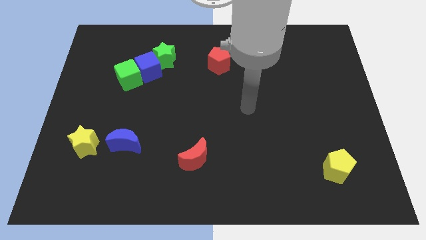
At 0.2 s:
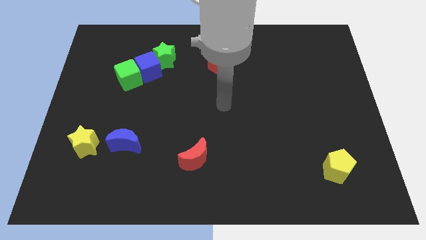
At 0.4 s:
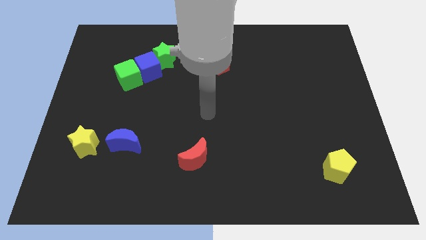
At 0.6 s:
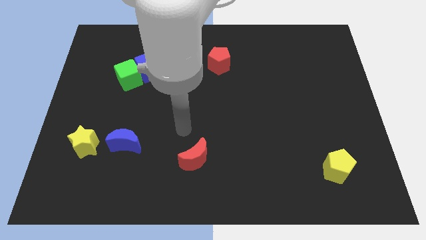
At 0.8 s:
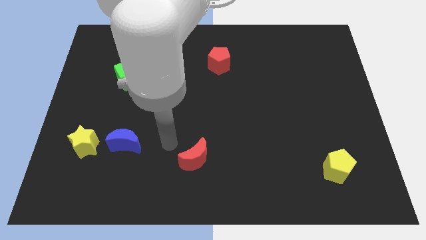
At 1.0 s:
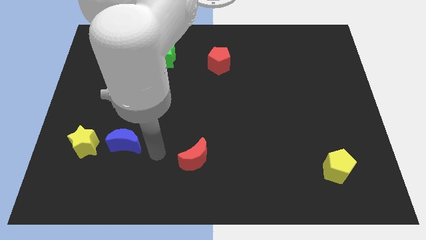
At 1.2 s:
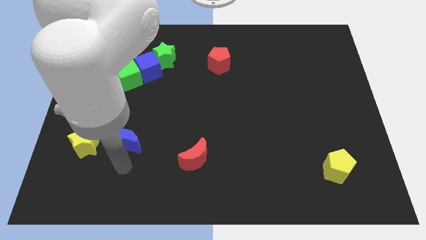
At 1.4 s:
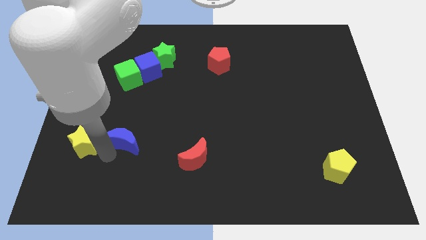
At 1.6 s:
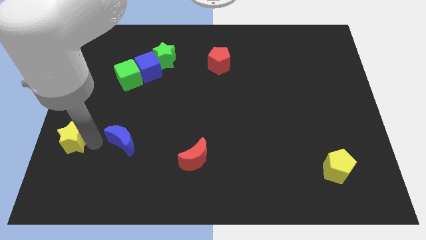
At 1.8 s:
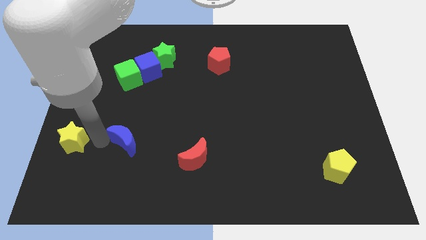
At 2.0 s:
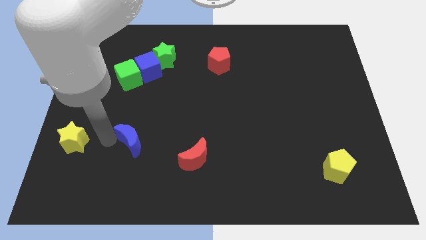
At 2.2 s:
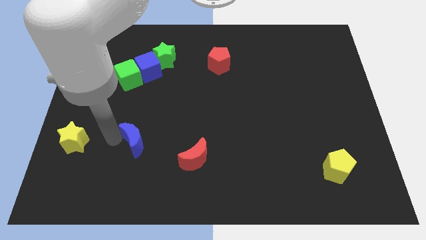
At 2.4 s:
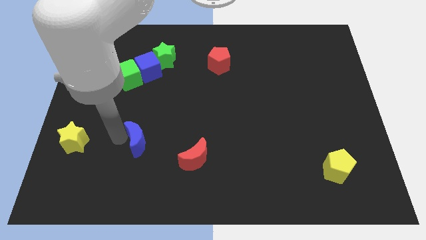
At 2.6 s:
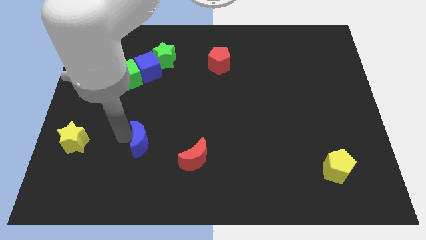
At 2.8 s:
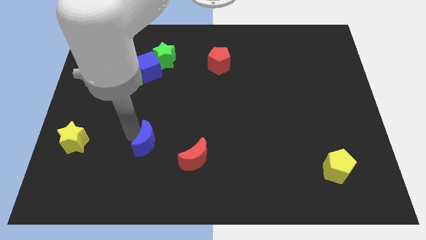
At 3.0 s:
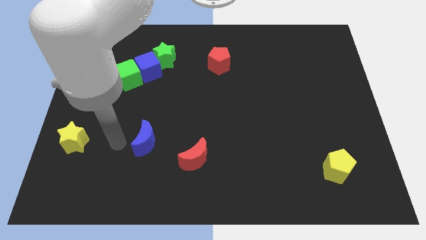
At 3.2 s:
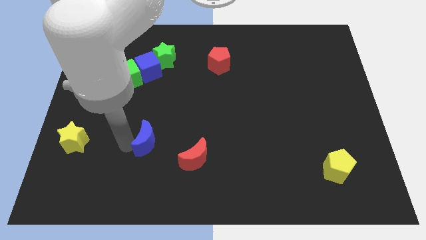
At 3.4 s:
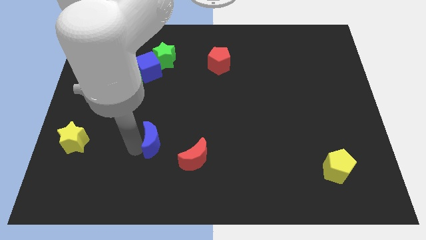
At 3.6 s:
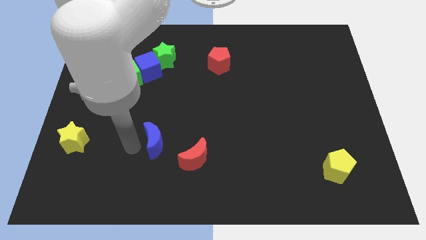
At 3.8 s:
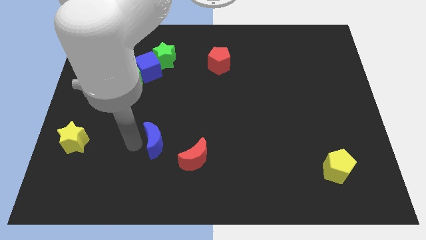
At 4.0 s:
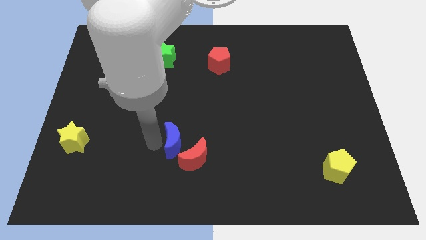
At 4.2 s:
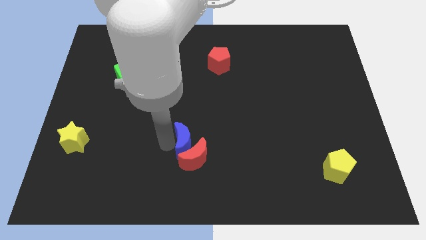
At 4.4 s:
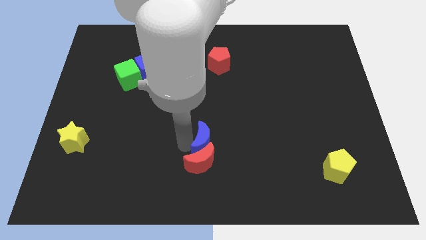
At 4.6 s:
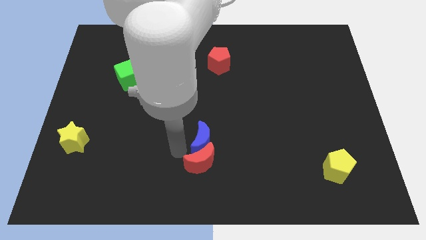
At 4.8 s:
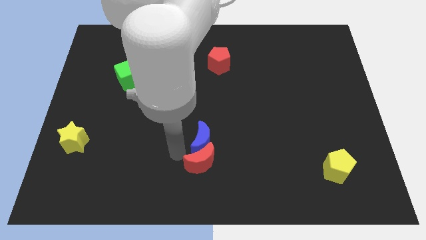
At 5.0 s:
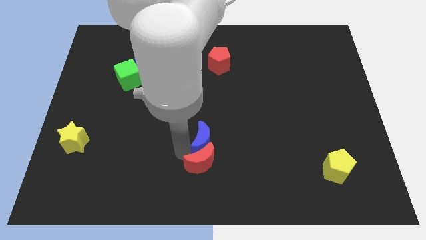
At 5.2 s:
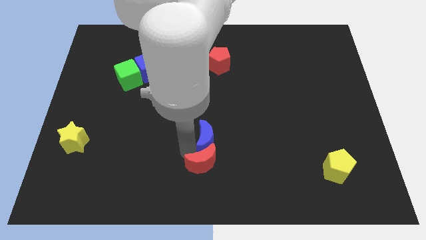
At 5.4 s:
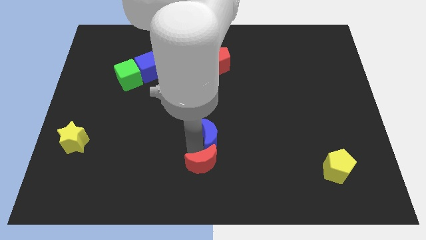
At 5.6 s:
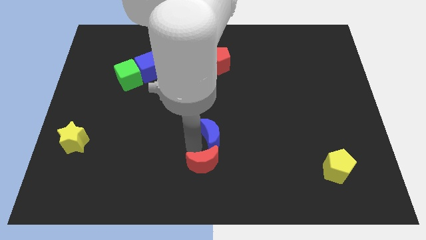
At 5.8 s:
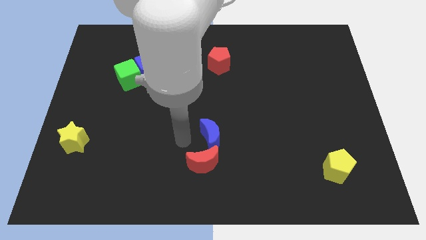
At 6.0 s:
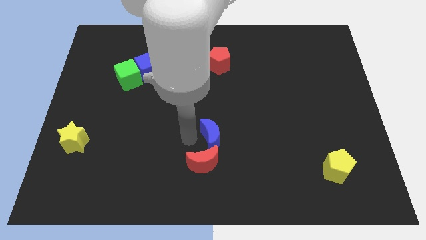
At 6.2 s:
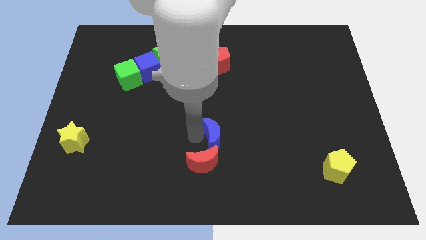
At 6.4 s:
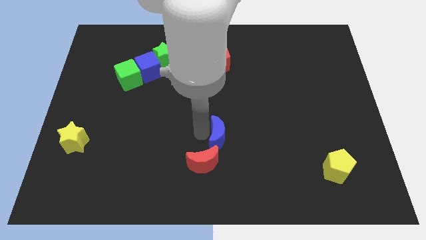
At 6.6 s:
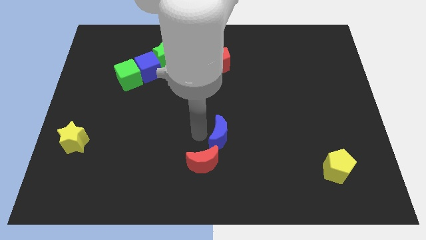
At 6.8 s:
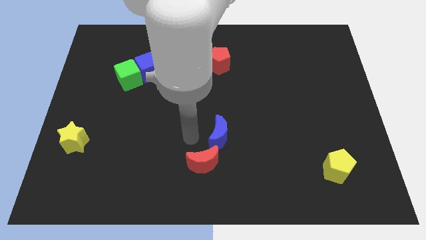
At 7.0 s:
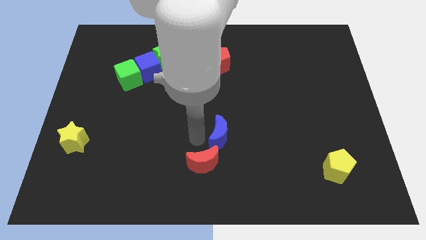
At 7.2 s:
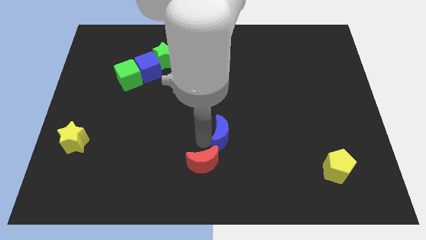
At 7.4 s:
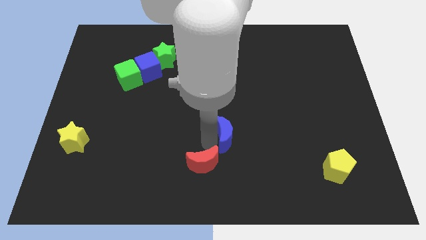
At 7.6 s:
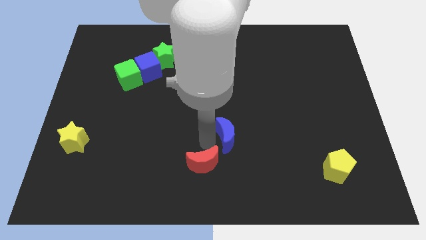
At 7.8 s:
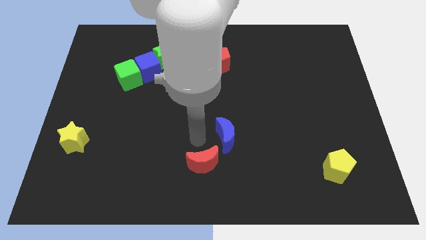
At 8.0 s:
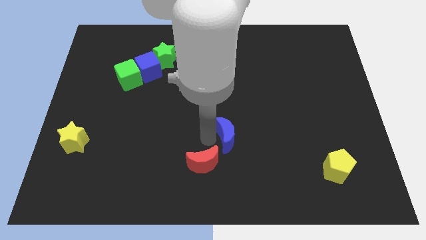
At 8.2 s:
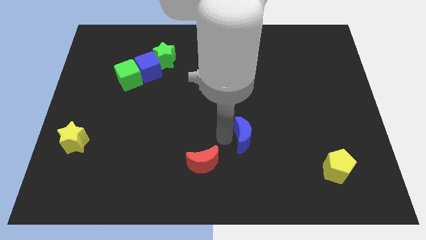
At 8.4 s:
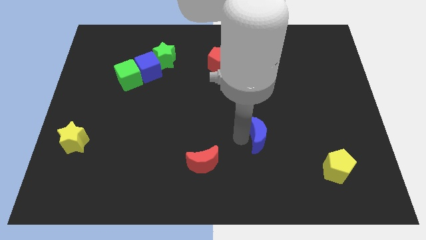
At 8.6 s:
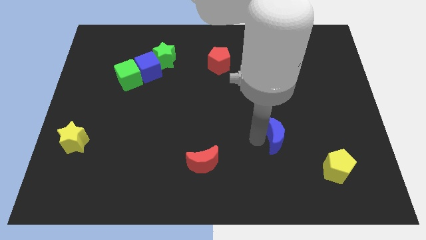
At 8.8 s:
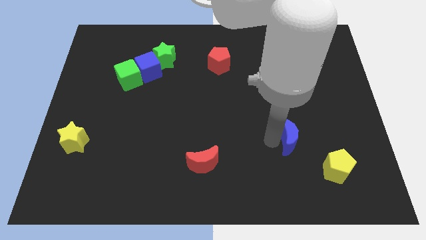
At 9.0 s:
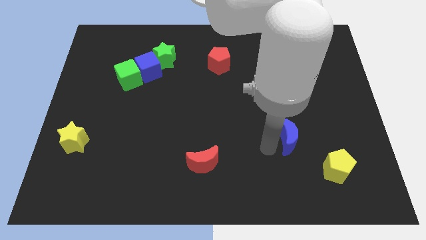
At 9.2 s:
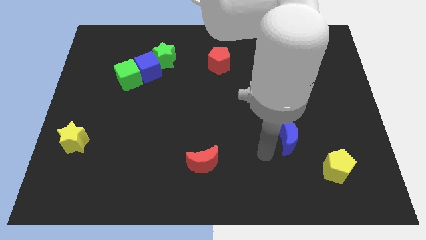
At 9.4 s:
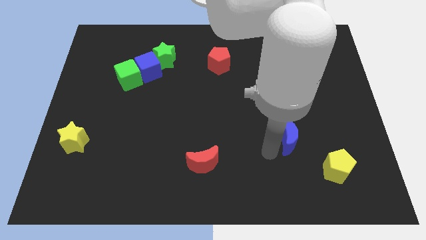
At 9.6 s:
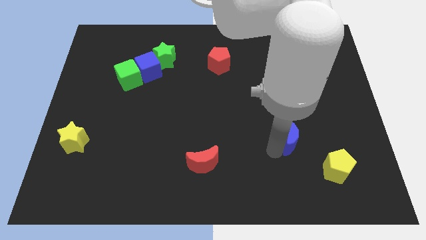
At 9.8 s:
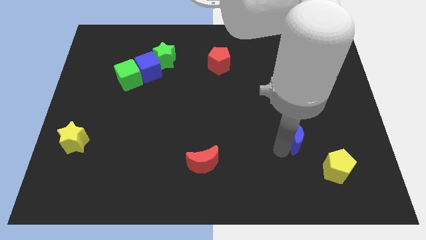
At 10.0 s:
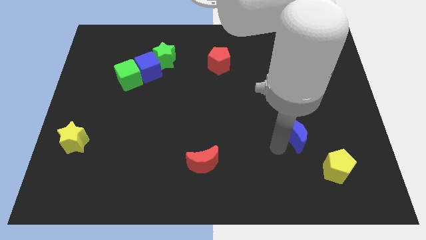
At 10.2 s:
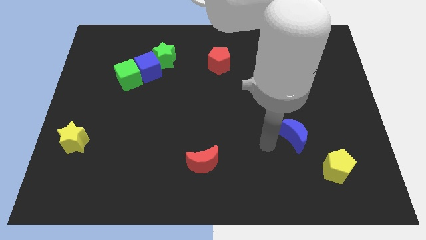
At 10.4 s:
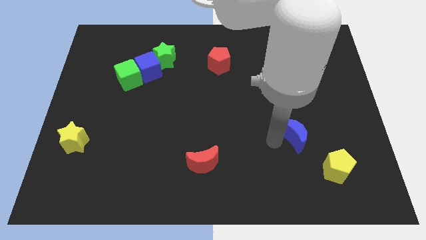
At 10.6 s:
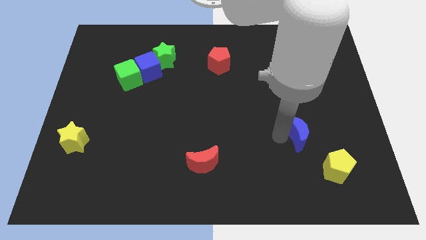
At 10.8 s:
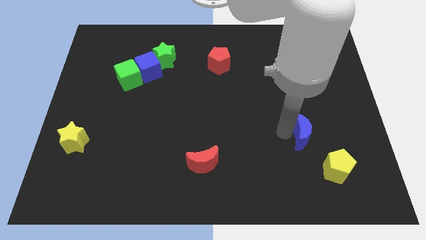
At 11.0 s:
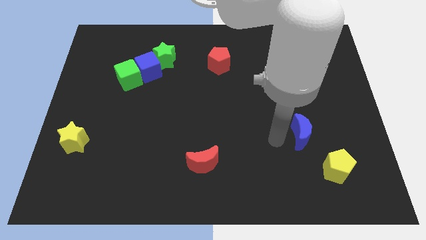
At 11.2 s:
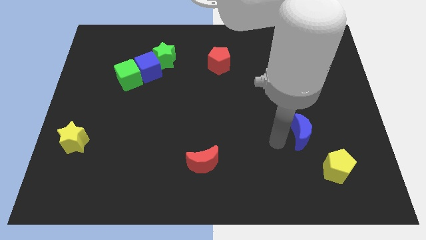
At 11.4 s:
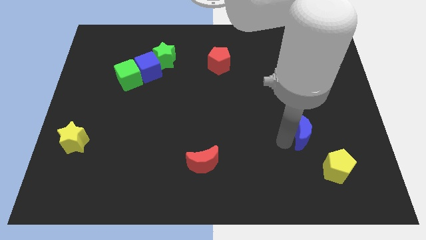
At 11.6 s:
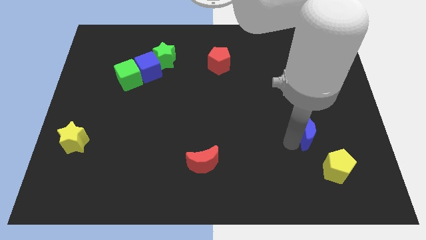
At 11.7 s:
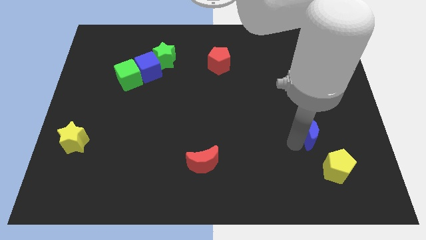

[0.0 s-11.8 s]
slide the blue moon above the yellow pentagon

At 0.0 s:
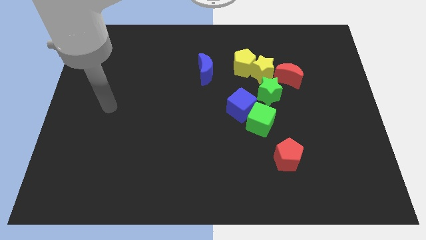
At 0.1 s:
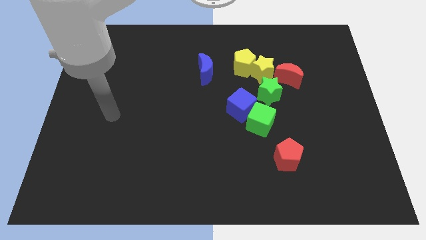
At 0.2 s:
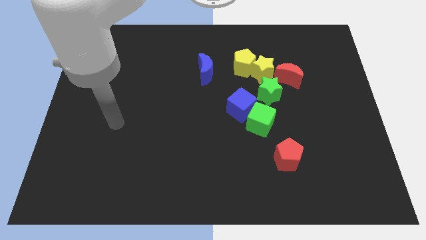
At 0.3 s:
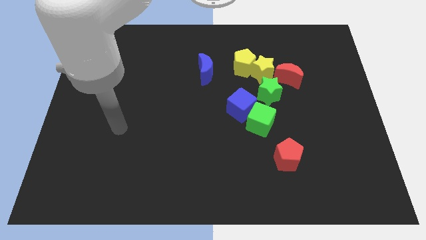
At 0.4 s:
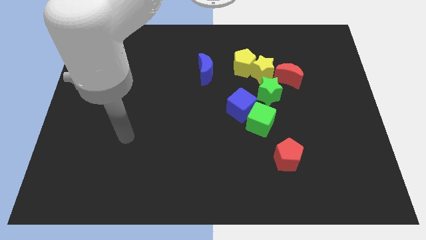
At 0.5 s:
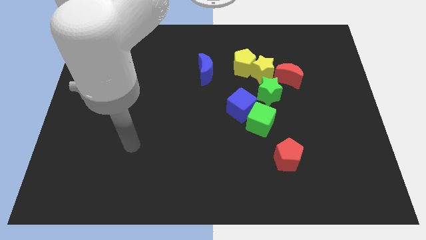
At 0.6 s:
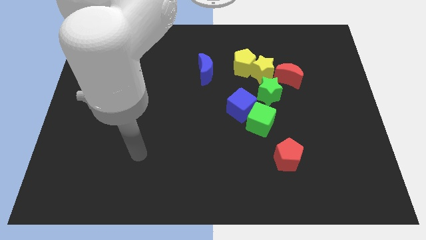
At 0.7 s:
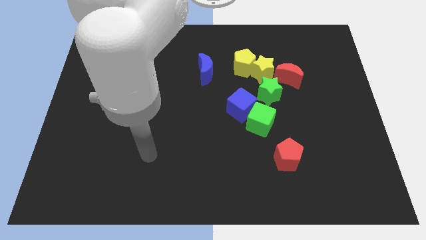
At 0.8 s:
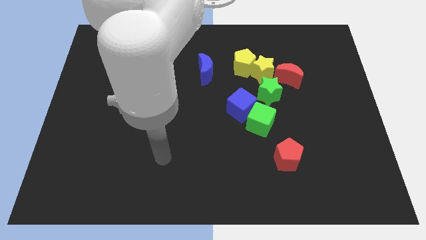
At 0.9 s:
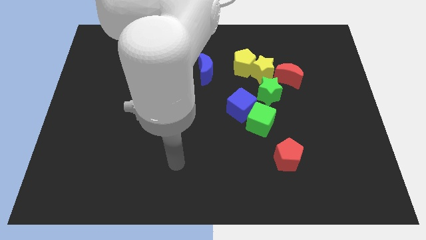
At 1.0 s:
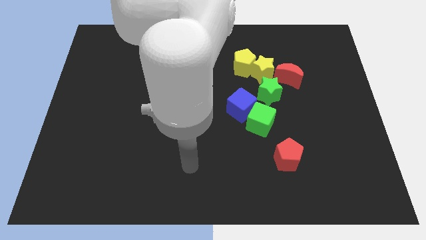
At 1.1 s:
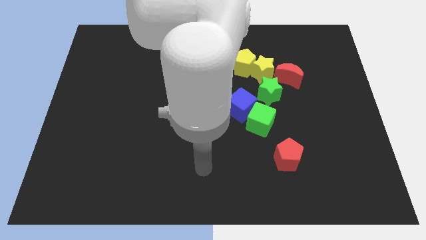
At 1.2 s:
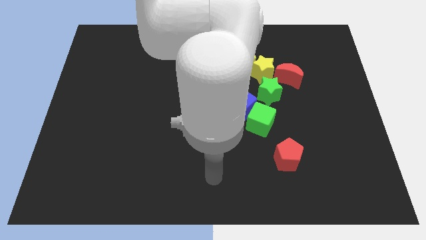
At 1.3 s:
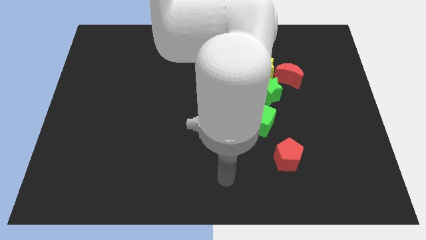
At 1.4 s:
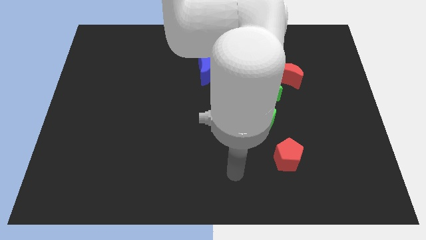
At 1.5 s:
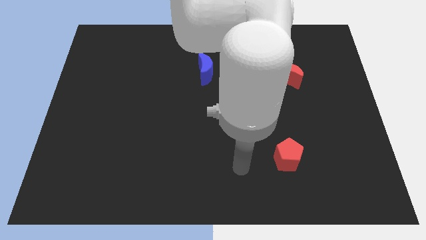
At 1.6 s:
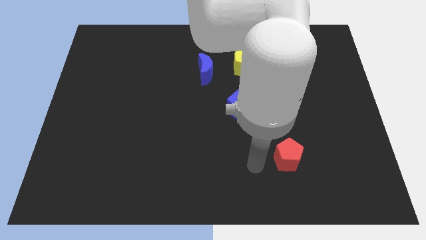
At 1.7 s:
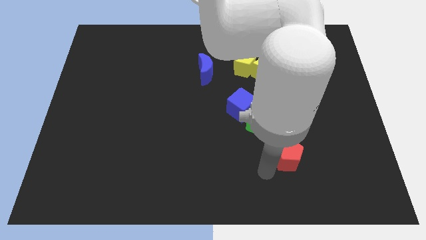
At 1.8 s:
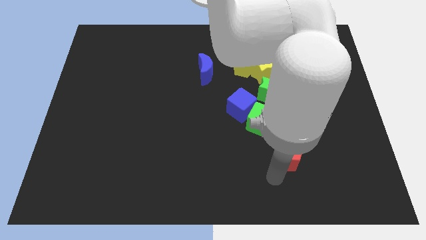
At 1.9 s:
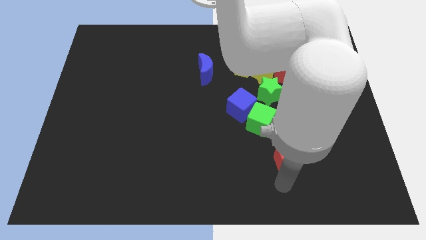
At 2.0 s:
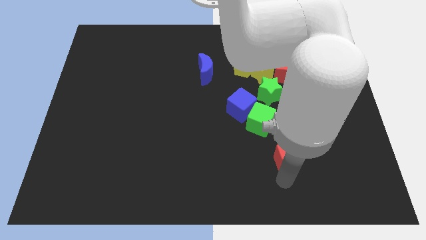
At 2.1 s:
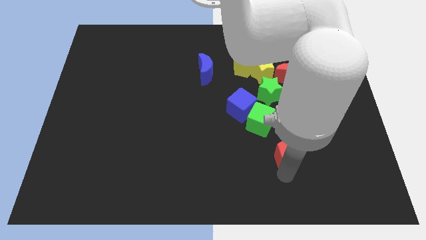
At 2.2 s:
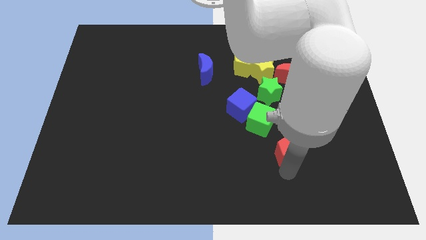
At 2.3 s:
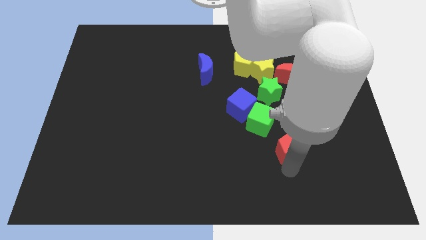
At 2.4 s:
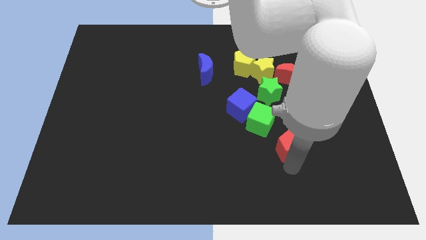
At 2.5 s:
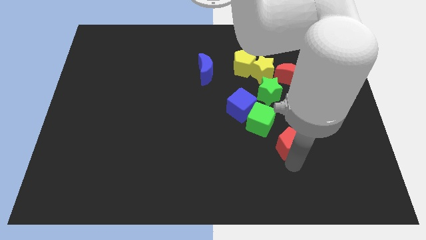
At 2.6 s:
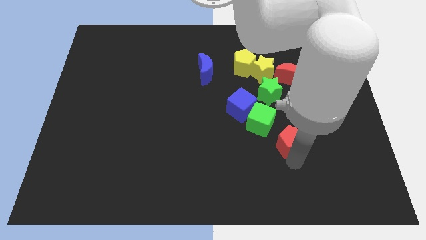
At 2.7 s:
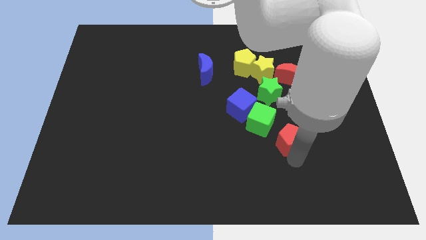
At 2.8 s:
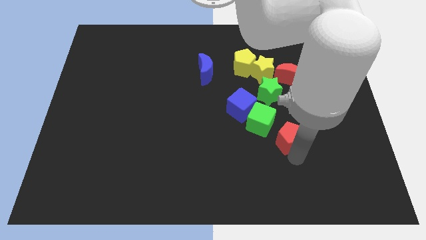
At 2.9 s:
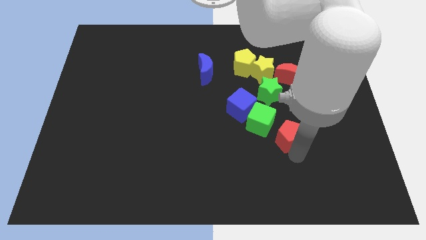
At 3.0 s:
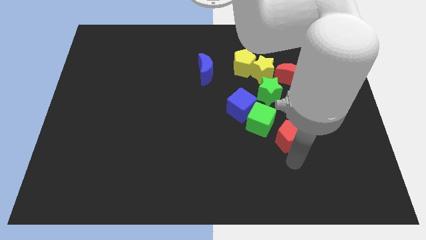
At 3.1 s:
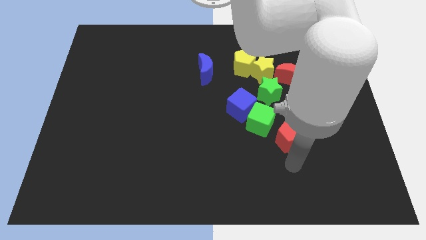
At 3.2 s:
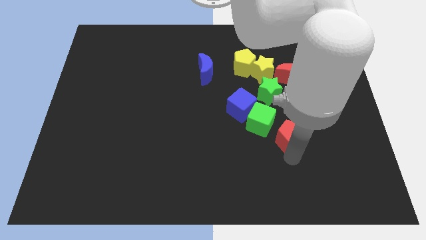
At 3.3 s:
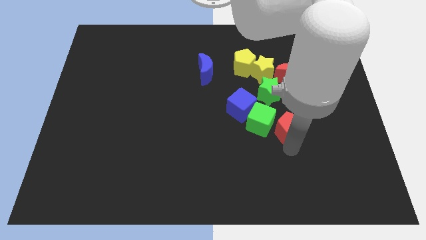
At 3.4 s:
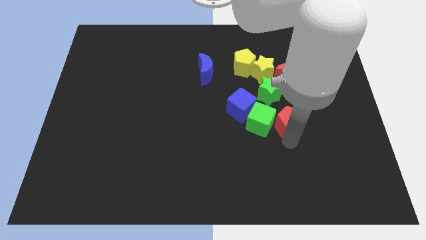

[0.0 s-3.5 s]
slide the red pentagon right of the blue cube
